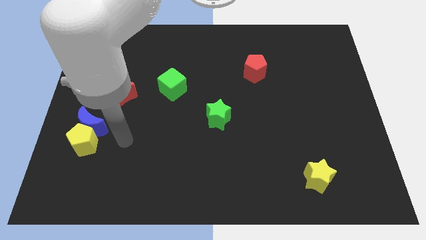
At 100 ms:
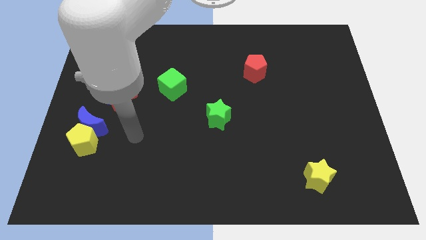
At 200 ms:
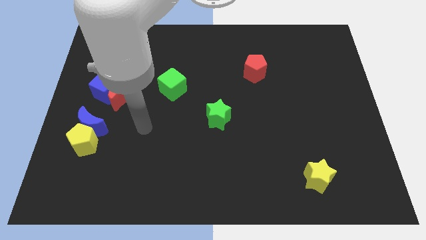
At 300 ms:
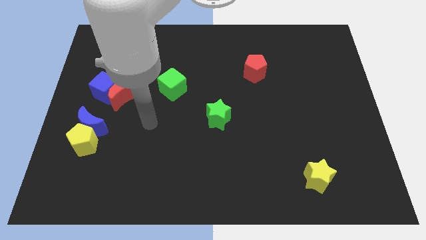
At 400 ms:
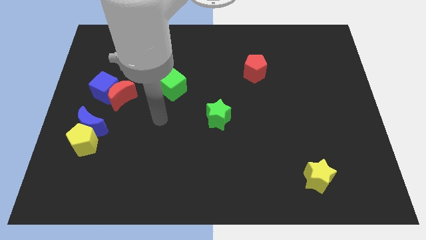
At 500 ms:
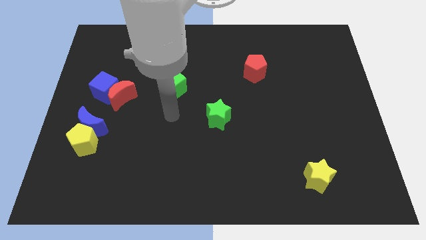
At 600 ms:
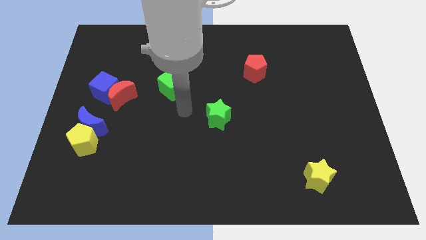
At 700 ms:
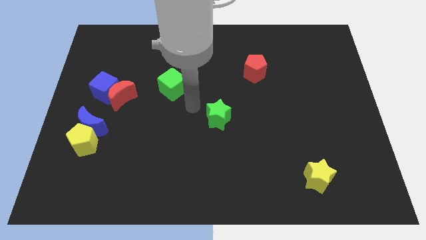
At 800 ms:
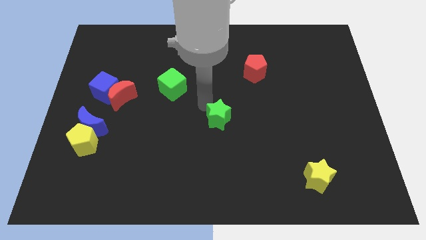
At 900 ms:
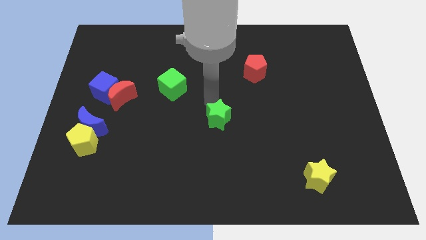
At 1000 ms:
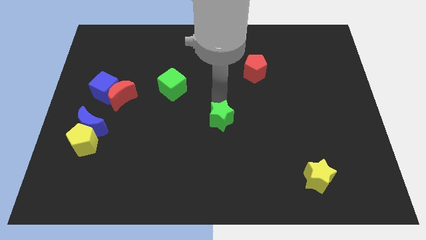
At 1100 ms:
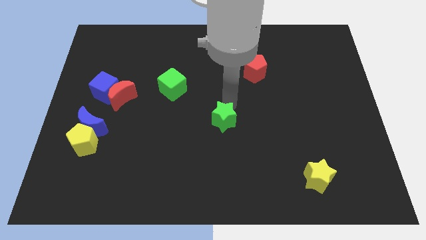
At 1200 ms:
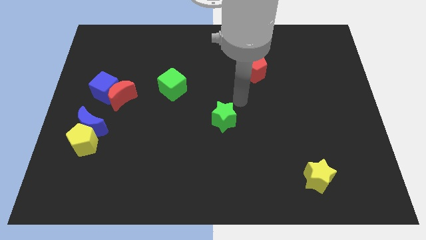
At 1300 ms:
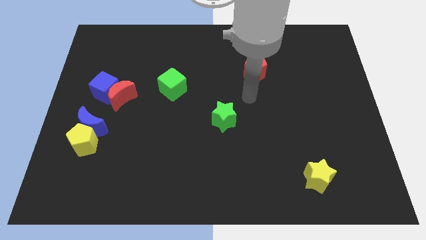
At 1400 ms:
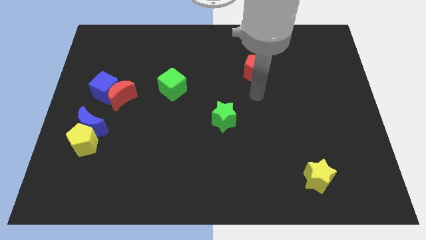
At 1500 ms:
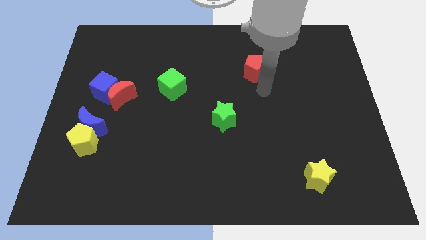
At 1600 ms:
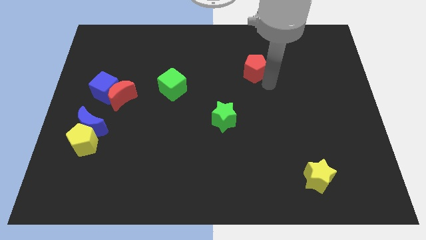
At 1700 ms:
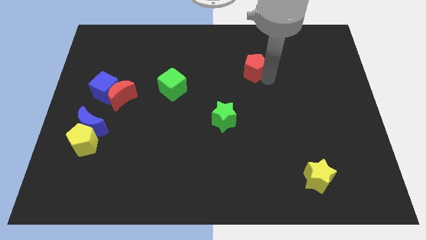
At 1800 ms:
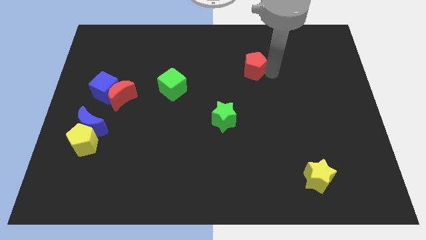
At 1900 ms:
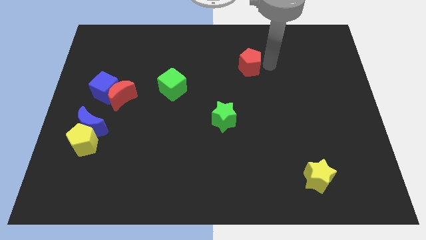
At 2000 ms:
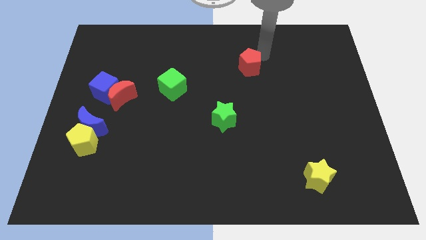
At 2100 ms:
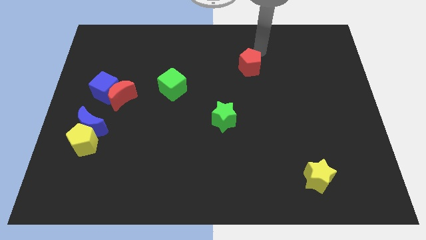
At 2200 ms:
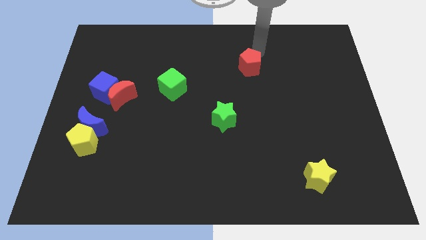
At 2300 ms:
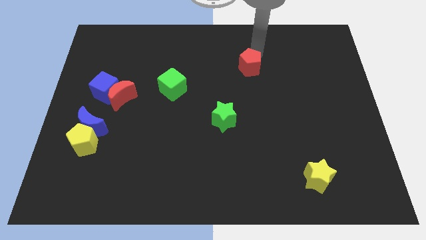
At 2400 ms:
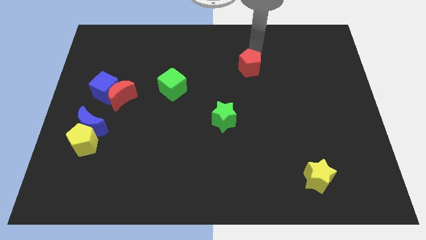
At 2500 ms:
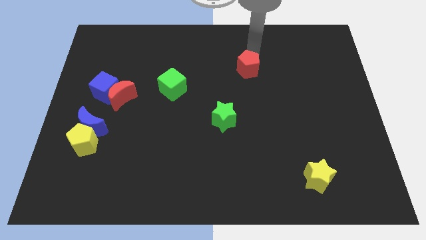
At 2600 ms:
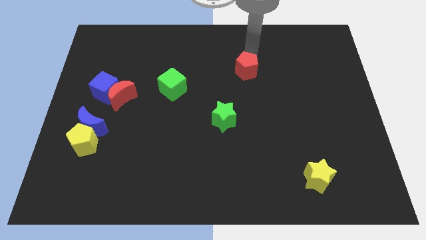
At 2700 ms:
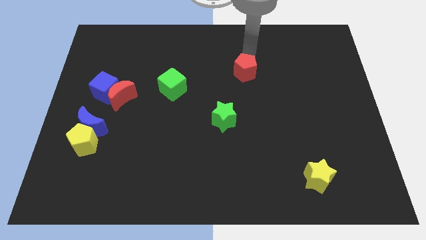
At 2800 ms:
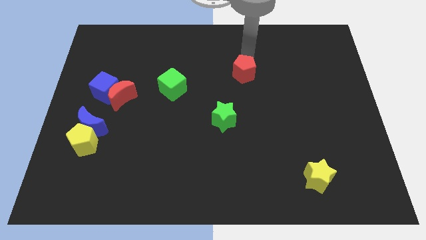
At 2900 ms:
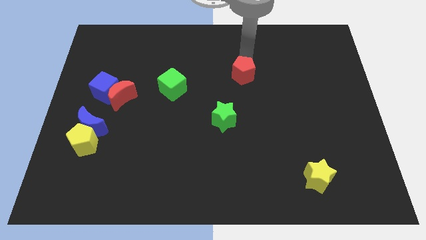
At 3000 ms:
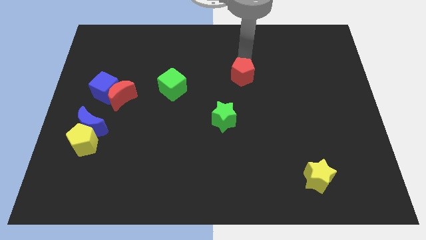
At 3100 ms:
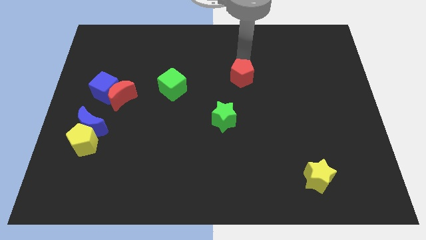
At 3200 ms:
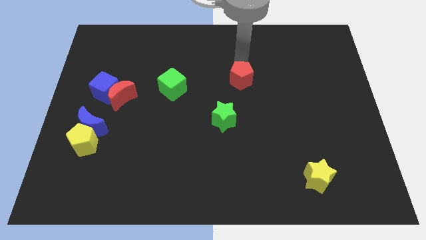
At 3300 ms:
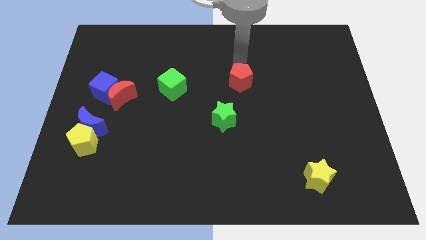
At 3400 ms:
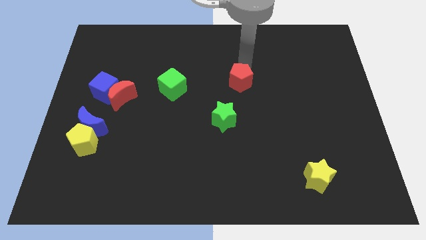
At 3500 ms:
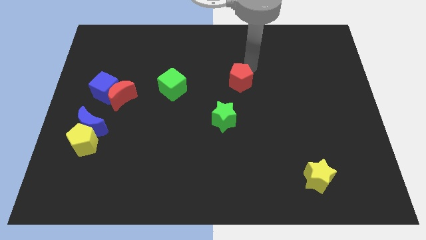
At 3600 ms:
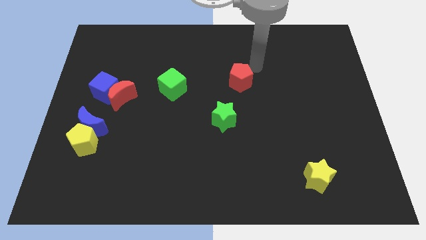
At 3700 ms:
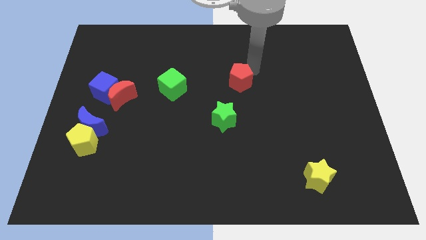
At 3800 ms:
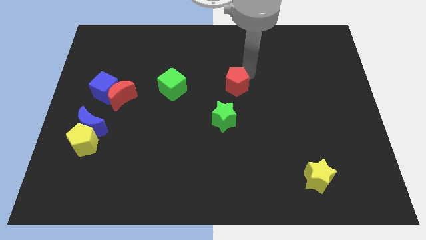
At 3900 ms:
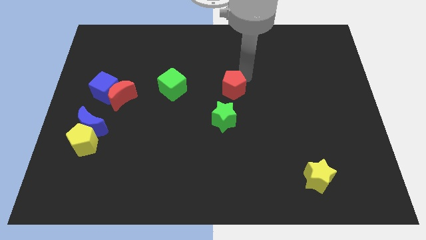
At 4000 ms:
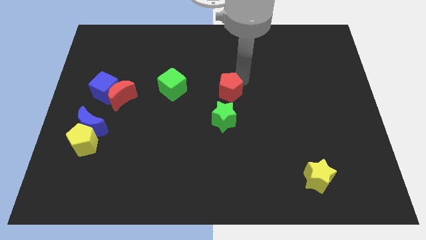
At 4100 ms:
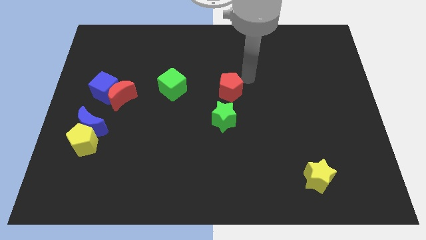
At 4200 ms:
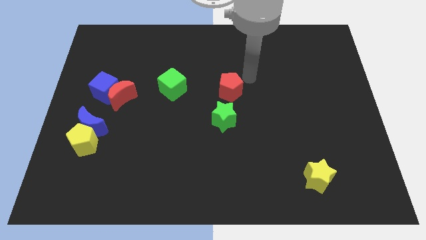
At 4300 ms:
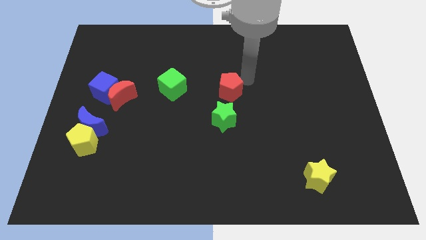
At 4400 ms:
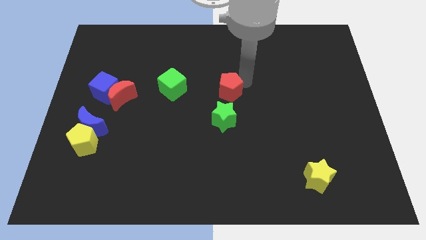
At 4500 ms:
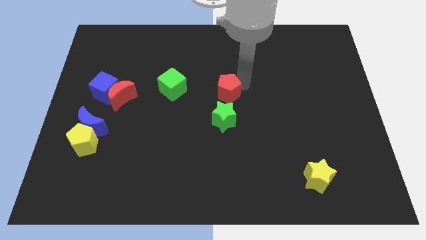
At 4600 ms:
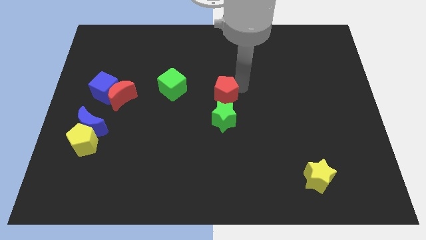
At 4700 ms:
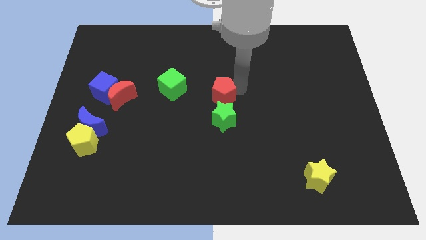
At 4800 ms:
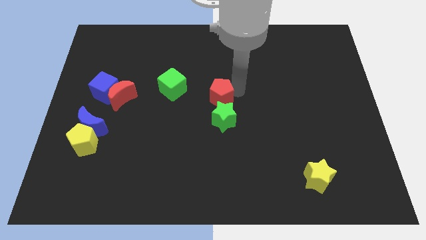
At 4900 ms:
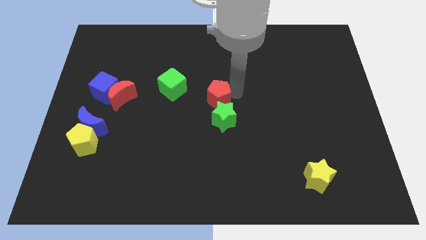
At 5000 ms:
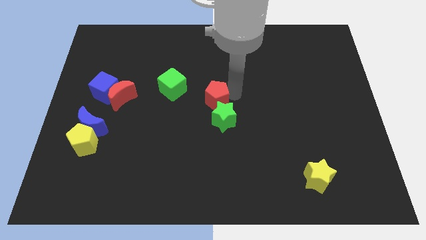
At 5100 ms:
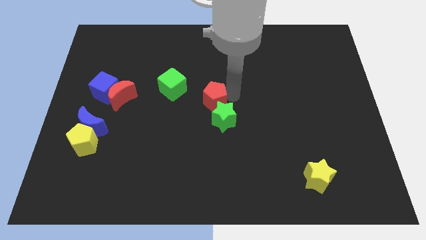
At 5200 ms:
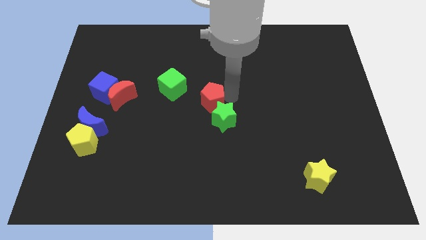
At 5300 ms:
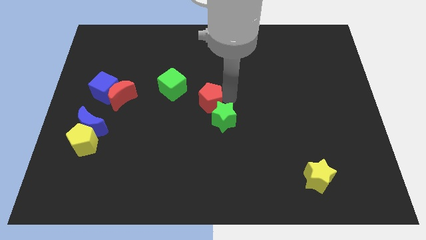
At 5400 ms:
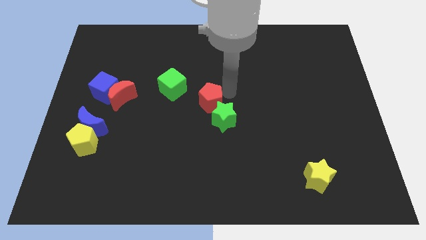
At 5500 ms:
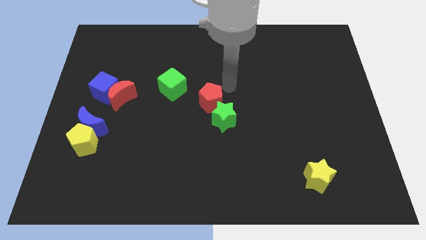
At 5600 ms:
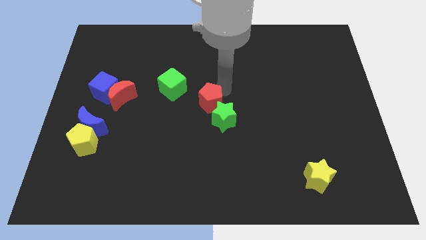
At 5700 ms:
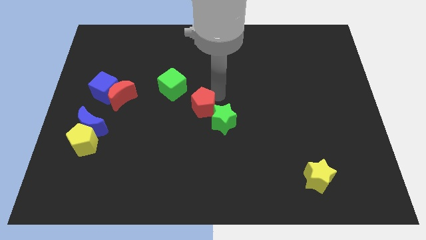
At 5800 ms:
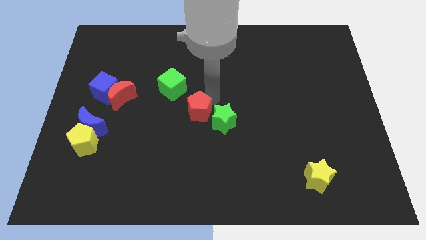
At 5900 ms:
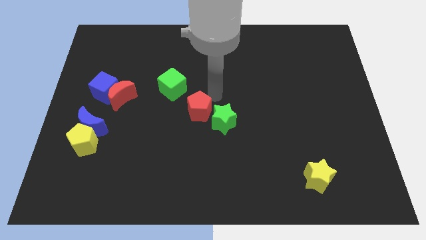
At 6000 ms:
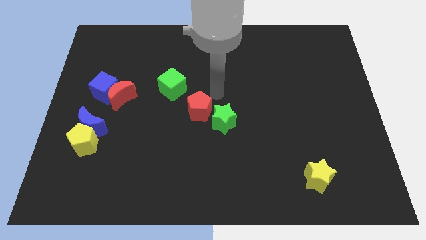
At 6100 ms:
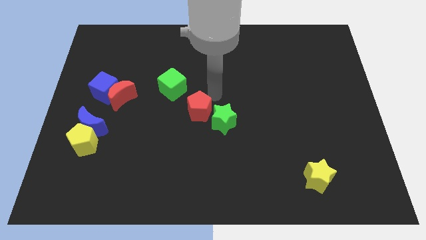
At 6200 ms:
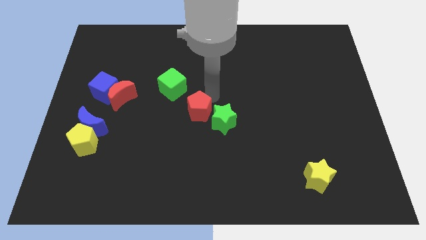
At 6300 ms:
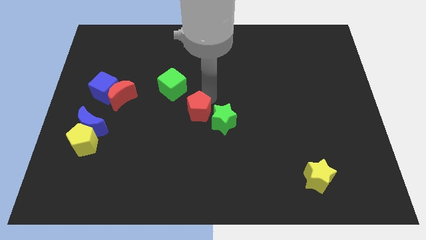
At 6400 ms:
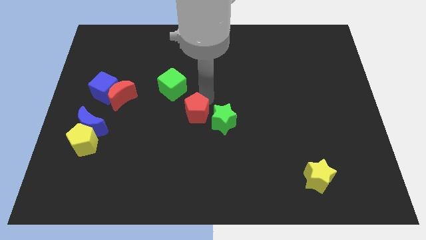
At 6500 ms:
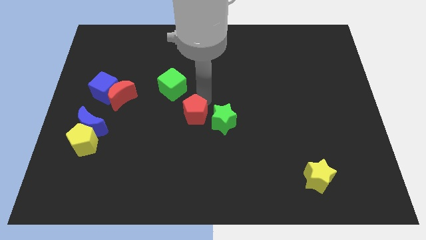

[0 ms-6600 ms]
push the red pentagon diagonally downwards and left

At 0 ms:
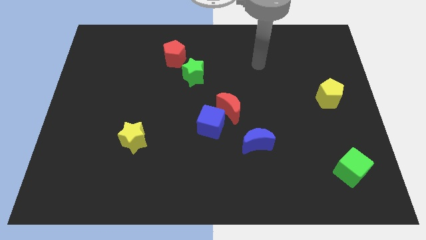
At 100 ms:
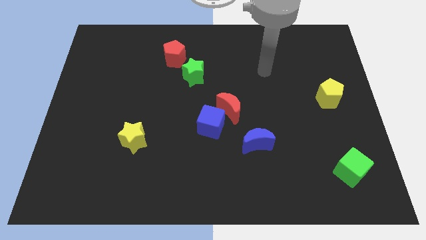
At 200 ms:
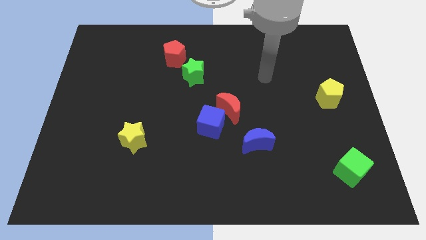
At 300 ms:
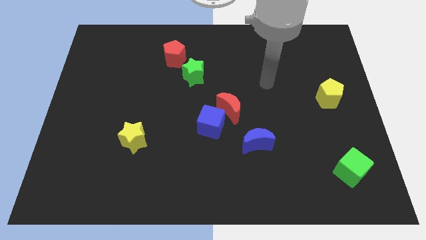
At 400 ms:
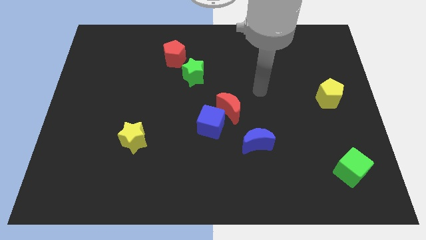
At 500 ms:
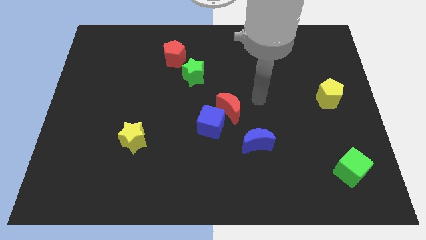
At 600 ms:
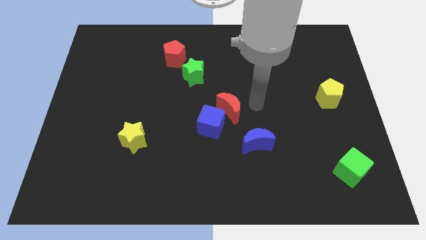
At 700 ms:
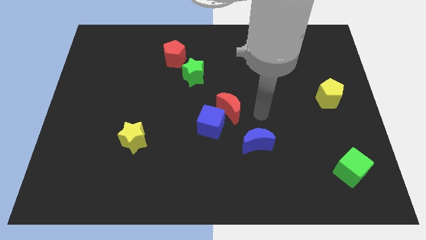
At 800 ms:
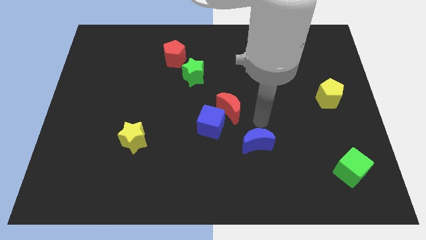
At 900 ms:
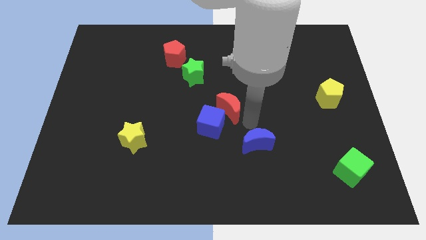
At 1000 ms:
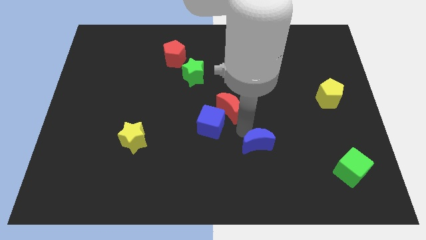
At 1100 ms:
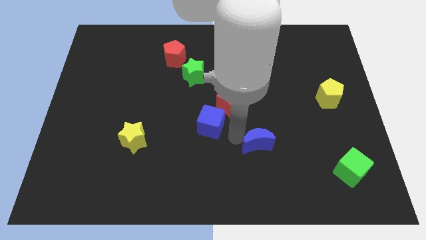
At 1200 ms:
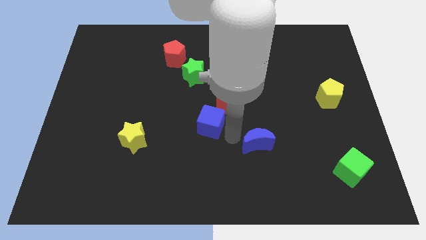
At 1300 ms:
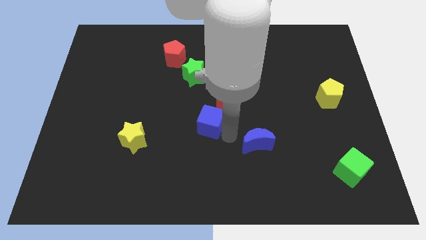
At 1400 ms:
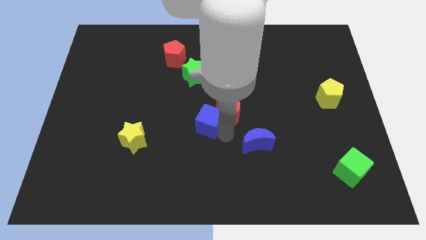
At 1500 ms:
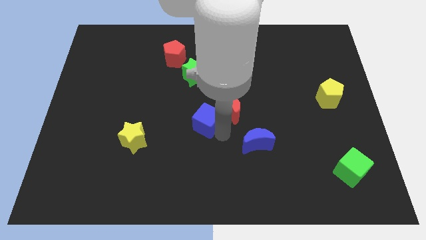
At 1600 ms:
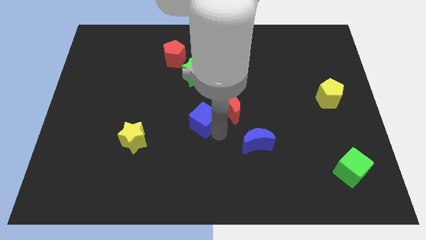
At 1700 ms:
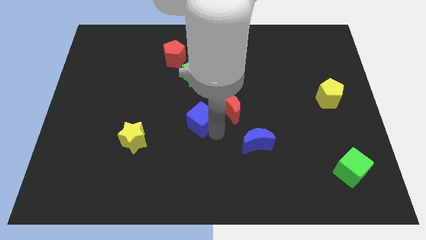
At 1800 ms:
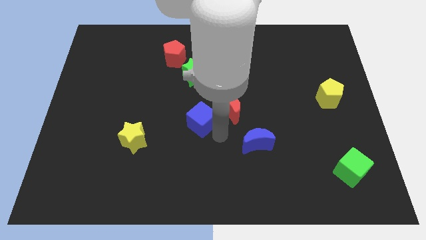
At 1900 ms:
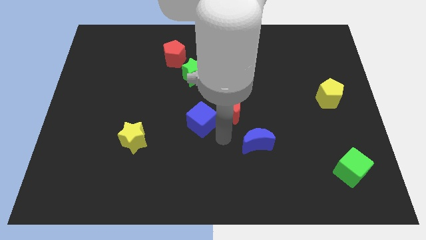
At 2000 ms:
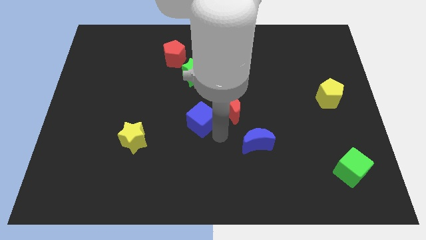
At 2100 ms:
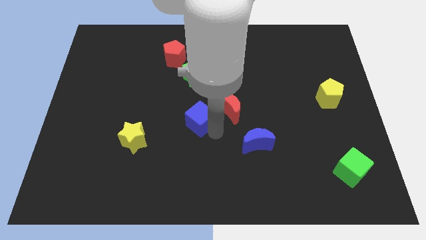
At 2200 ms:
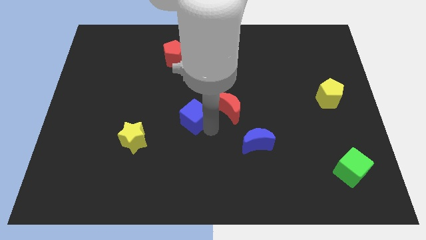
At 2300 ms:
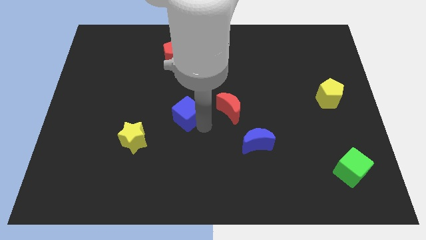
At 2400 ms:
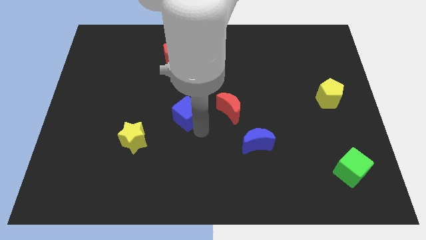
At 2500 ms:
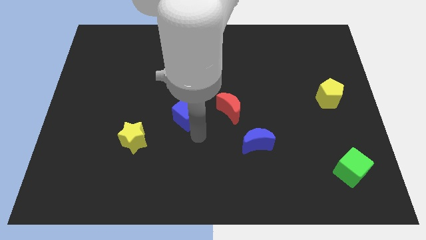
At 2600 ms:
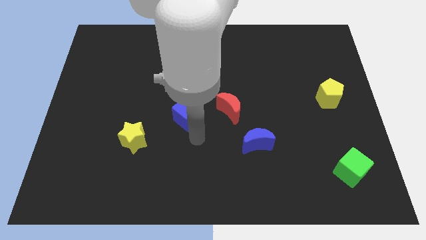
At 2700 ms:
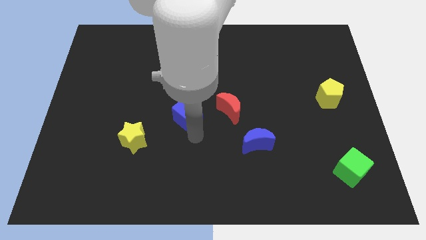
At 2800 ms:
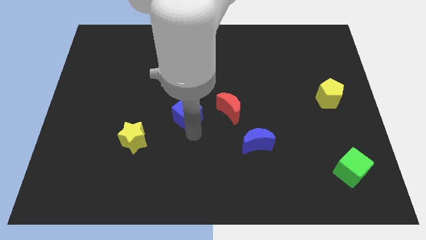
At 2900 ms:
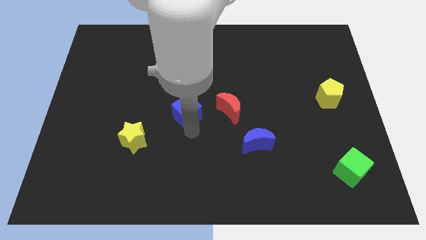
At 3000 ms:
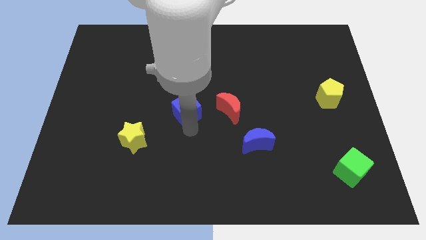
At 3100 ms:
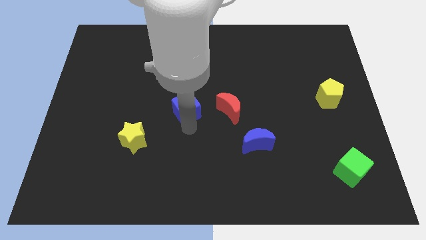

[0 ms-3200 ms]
move the blue cube diagonally upwards and to the left slightly
